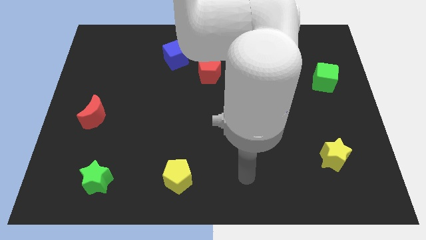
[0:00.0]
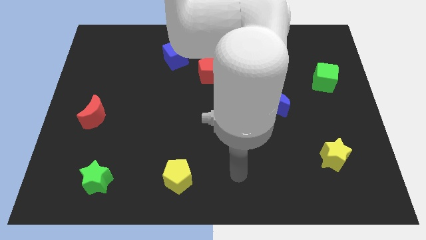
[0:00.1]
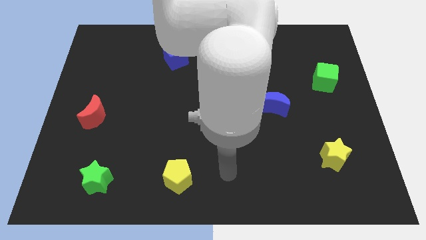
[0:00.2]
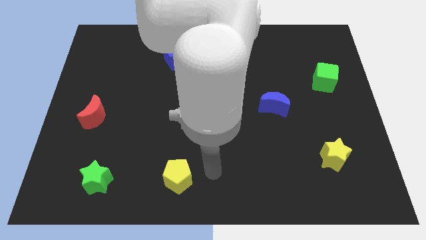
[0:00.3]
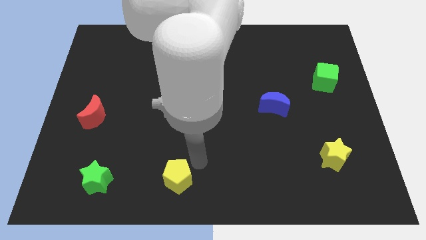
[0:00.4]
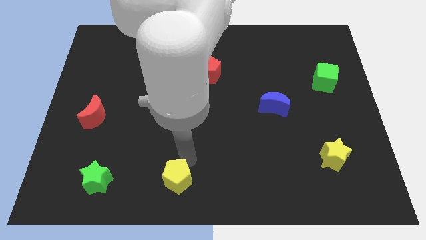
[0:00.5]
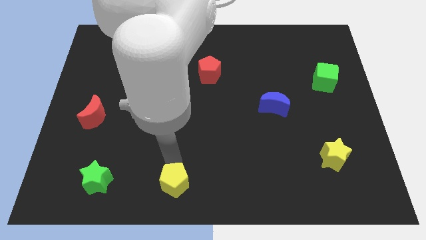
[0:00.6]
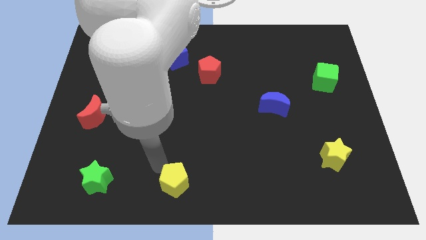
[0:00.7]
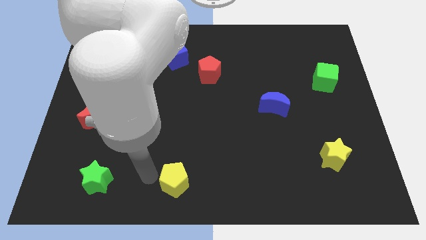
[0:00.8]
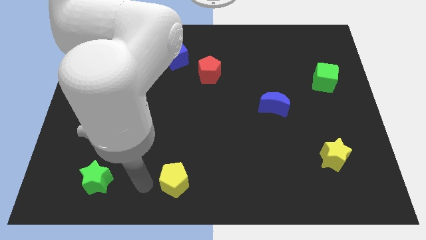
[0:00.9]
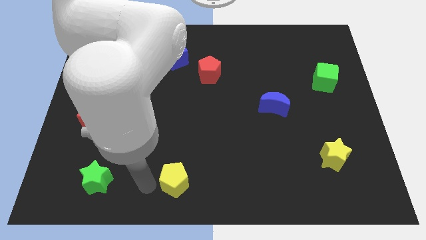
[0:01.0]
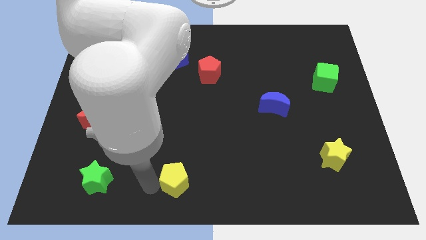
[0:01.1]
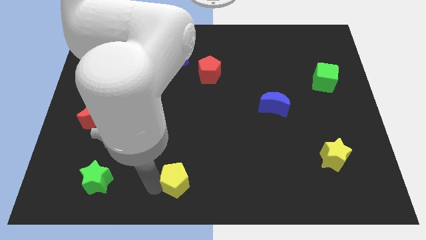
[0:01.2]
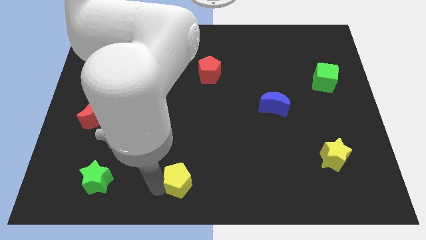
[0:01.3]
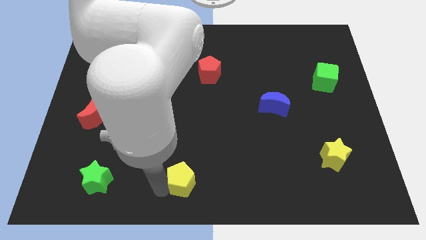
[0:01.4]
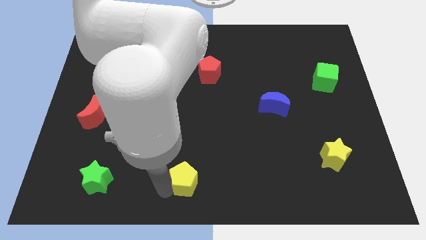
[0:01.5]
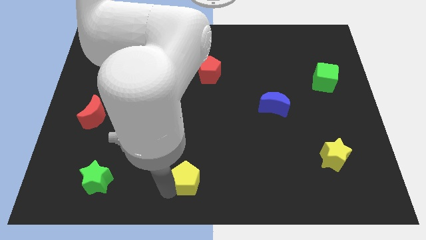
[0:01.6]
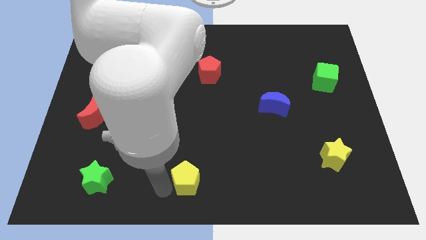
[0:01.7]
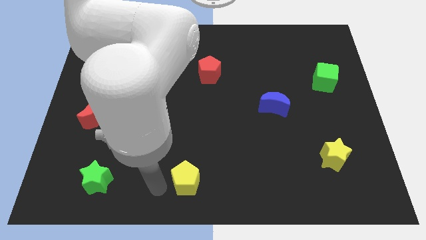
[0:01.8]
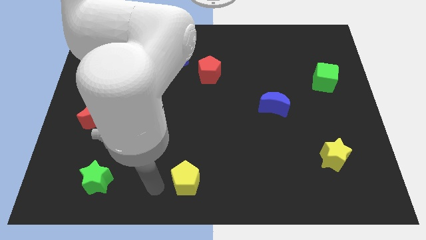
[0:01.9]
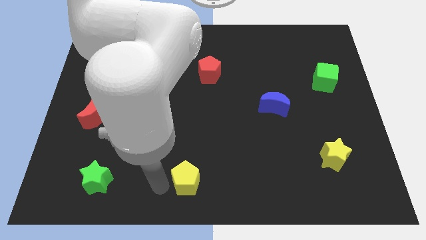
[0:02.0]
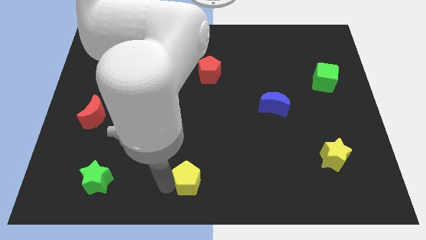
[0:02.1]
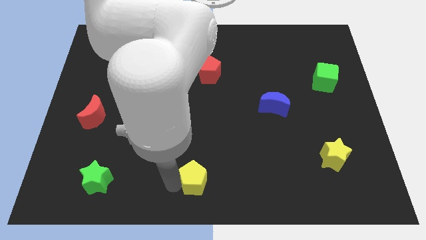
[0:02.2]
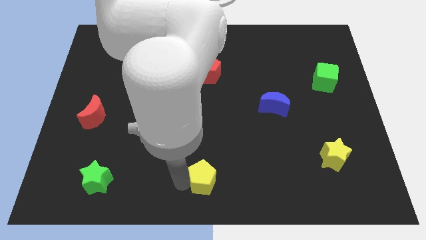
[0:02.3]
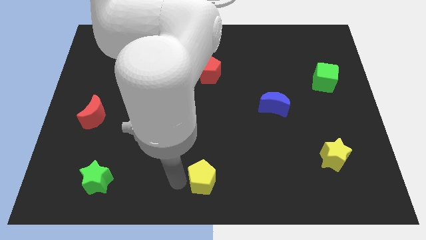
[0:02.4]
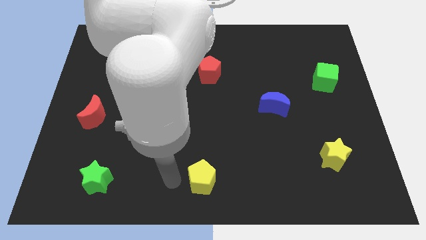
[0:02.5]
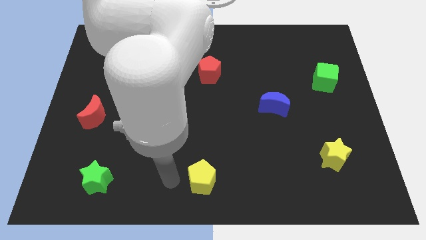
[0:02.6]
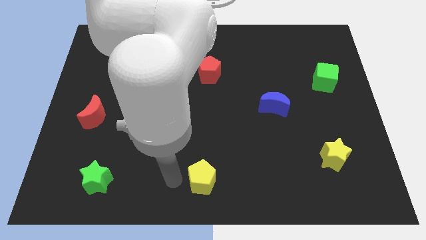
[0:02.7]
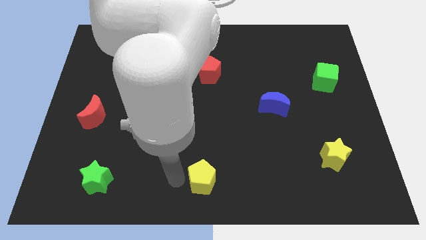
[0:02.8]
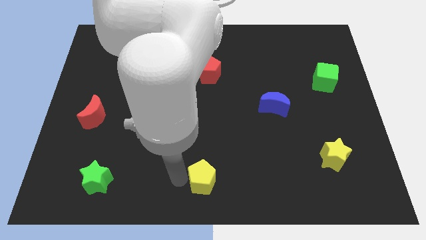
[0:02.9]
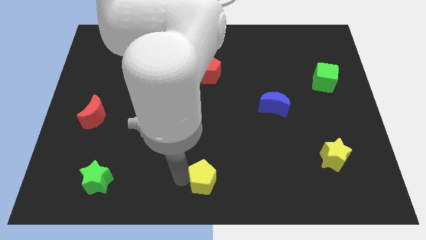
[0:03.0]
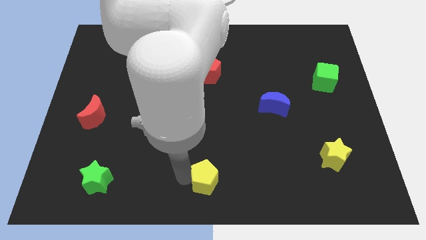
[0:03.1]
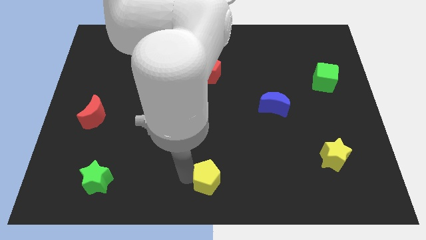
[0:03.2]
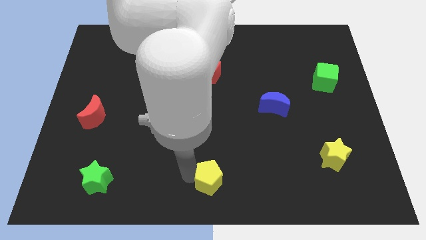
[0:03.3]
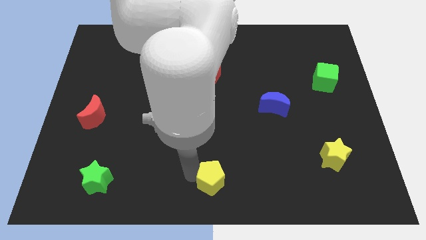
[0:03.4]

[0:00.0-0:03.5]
slightly move the yellow pentagon to the right

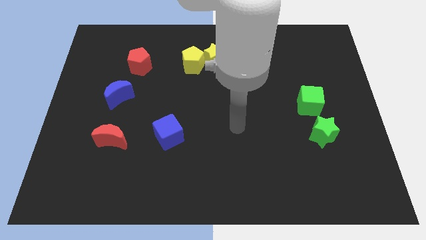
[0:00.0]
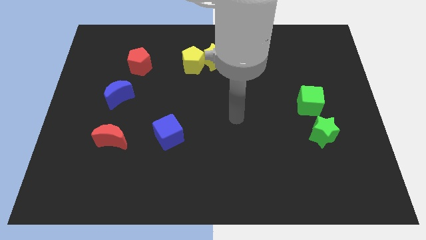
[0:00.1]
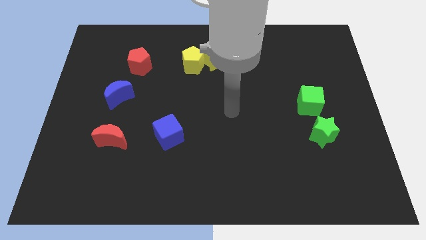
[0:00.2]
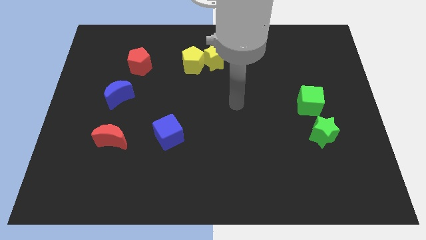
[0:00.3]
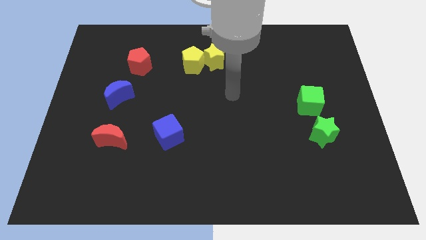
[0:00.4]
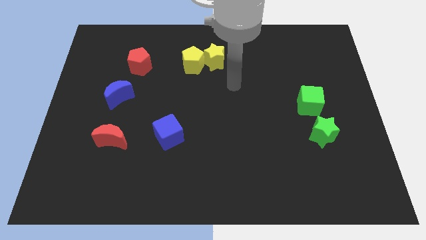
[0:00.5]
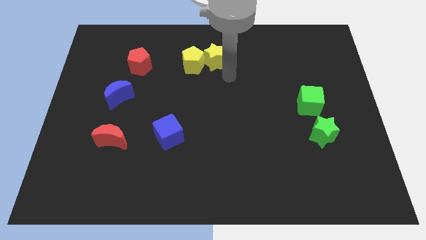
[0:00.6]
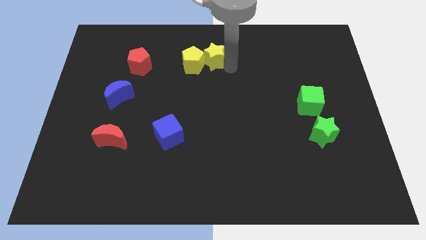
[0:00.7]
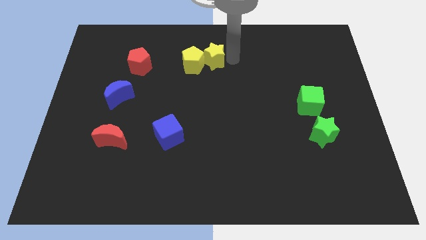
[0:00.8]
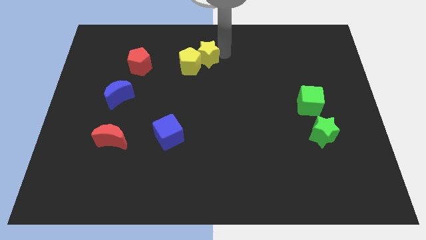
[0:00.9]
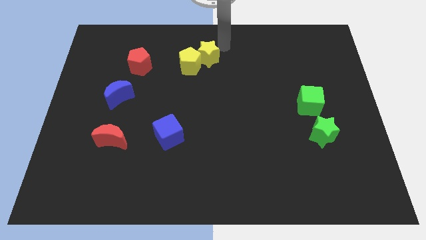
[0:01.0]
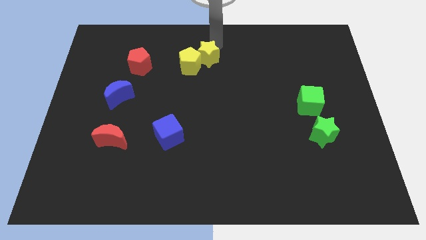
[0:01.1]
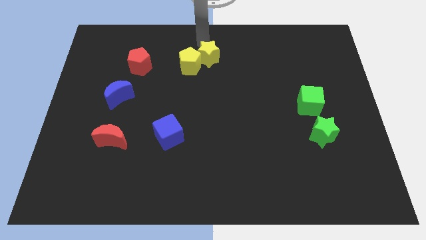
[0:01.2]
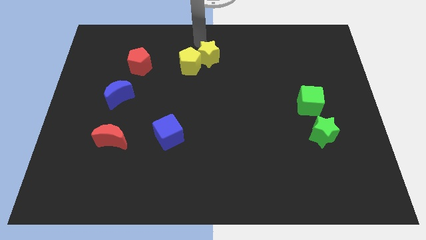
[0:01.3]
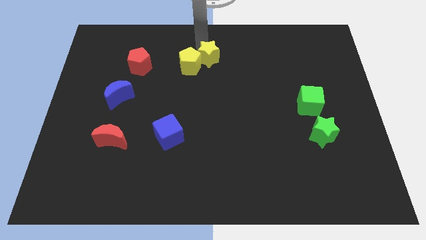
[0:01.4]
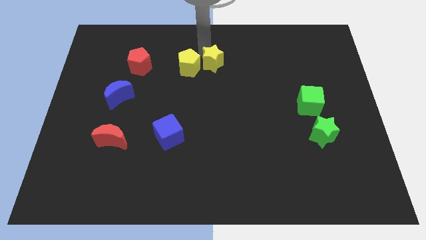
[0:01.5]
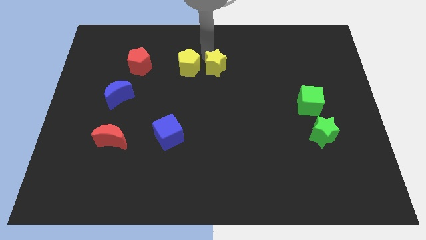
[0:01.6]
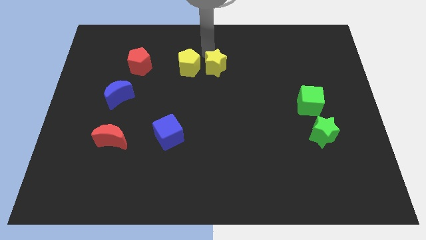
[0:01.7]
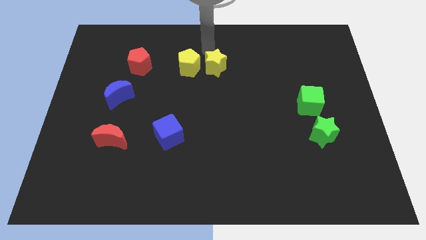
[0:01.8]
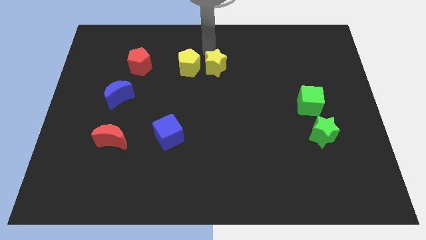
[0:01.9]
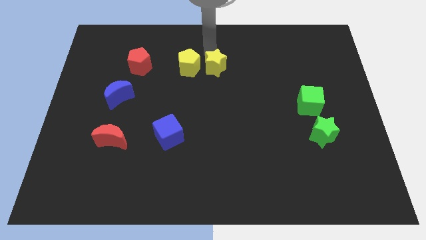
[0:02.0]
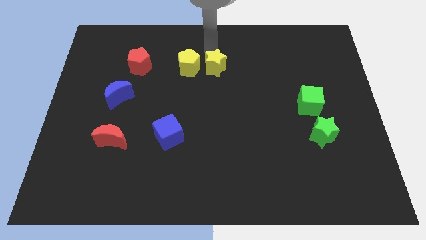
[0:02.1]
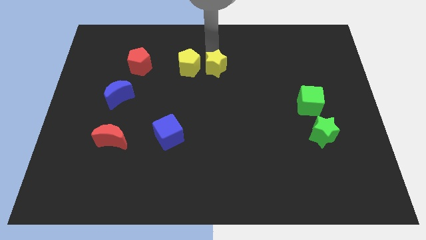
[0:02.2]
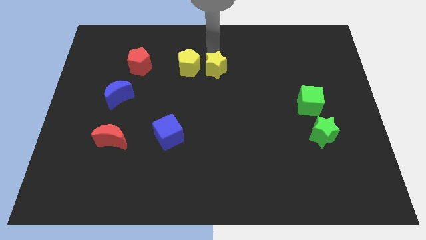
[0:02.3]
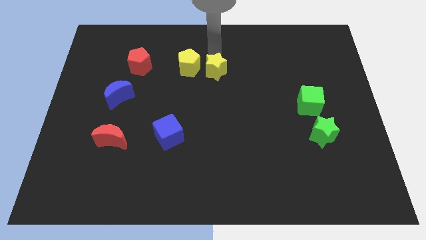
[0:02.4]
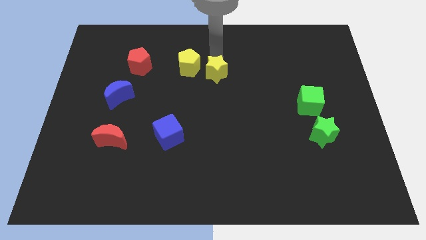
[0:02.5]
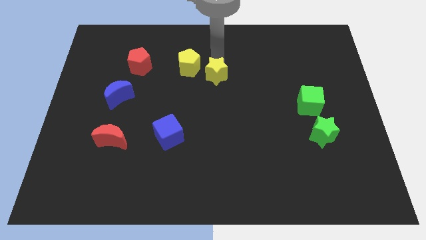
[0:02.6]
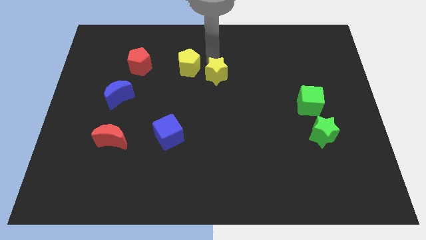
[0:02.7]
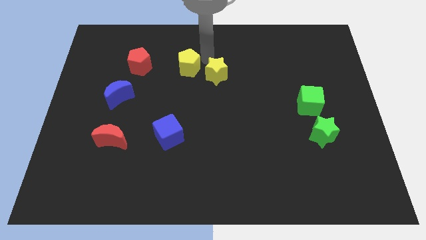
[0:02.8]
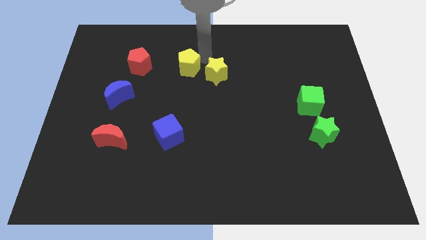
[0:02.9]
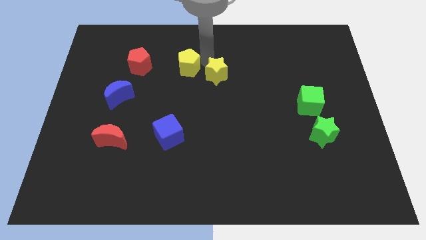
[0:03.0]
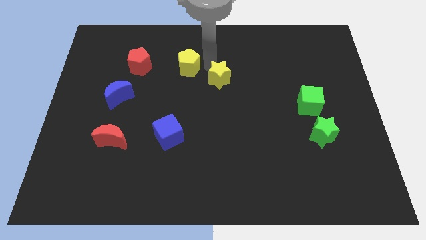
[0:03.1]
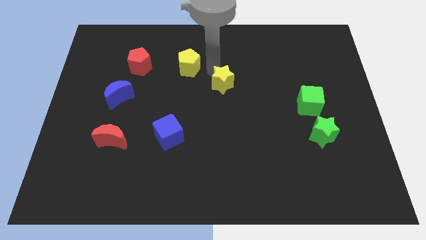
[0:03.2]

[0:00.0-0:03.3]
push the yellow star a little bit down

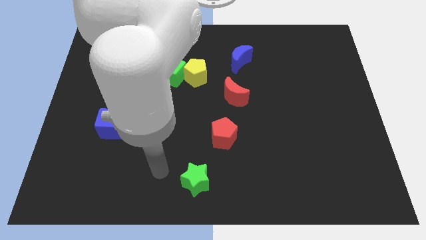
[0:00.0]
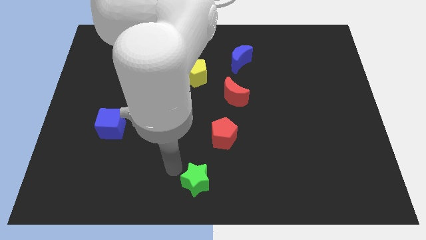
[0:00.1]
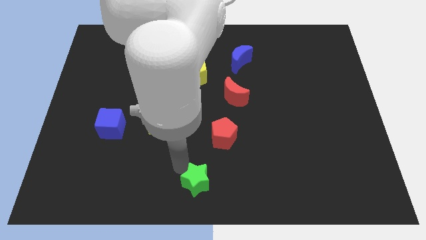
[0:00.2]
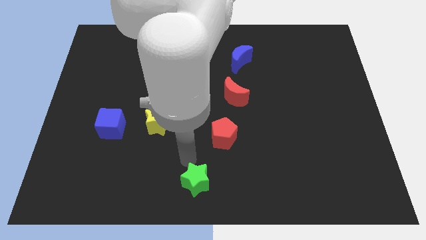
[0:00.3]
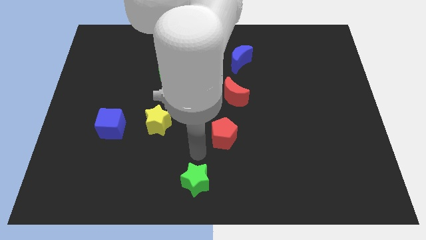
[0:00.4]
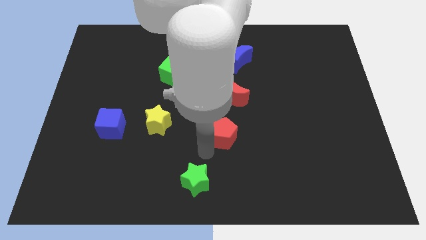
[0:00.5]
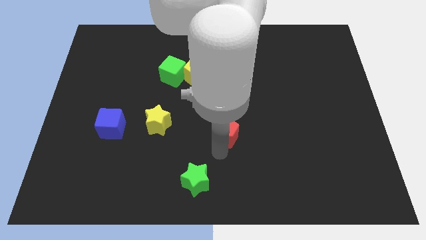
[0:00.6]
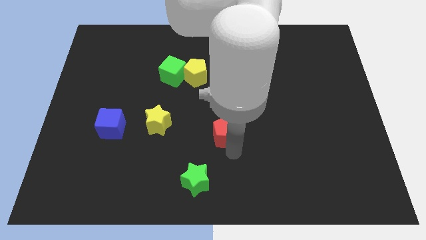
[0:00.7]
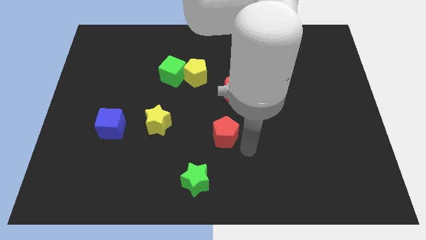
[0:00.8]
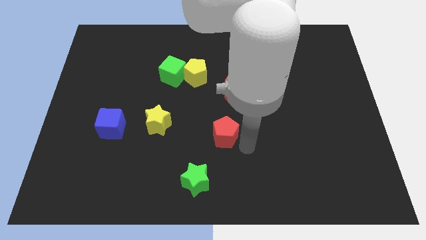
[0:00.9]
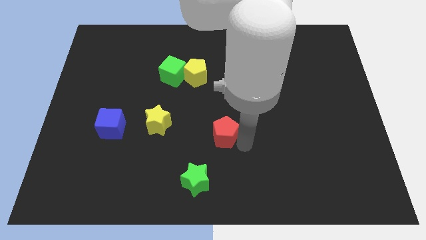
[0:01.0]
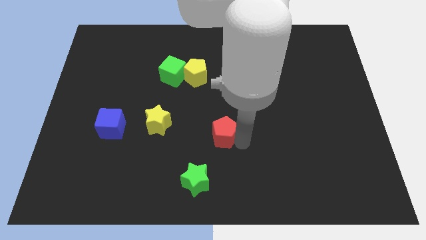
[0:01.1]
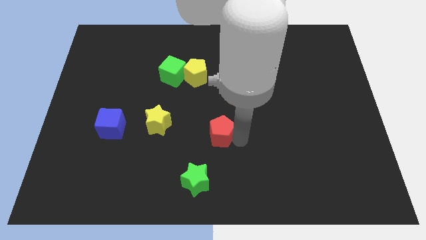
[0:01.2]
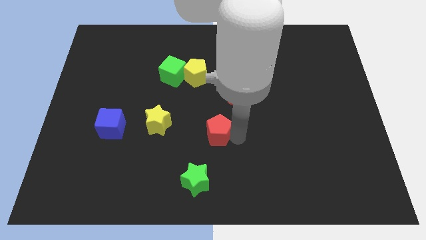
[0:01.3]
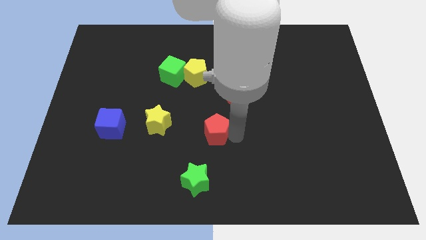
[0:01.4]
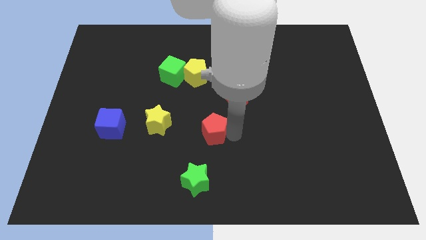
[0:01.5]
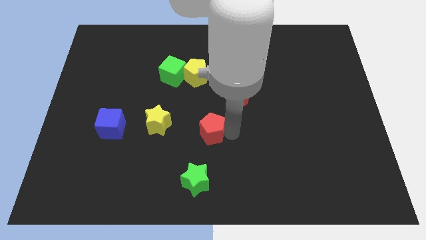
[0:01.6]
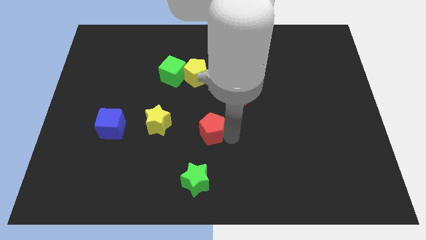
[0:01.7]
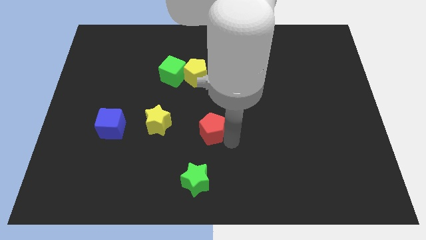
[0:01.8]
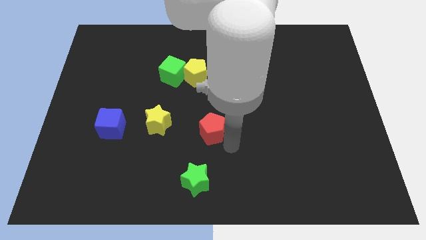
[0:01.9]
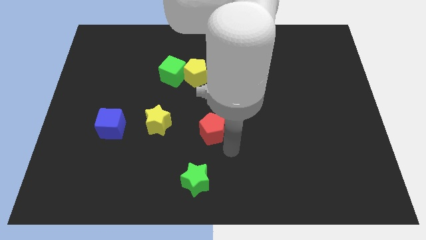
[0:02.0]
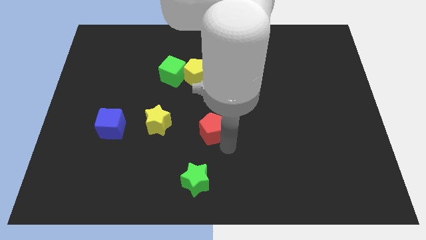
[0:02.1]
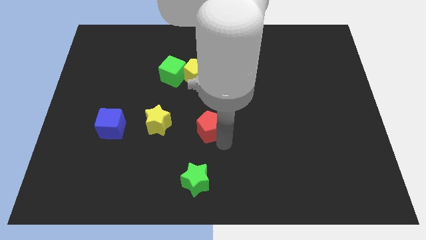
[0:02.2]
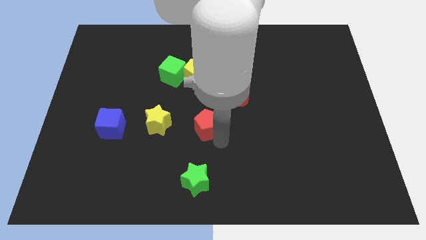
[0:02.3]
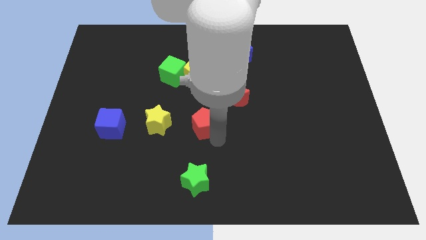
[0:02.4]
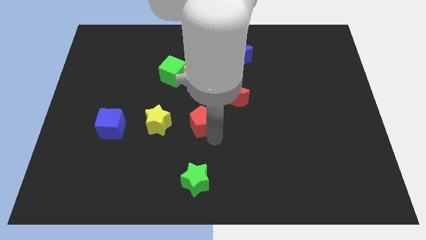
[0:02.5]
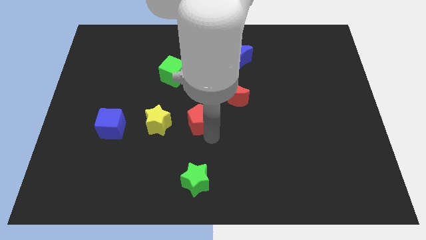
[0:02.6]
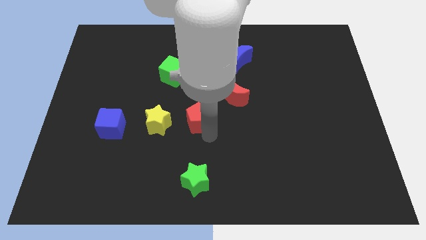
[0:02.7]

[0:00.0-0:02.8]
slightly slide the red pentagon up and left
